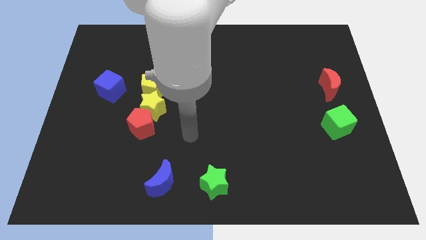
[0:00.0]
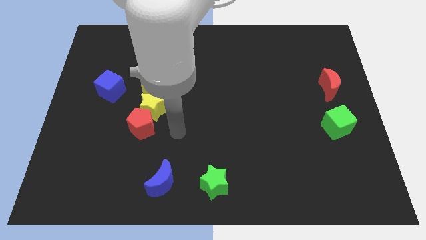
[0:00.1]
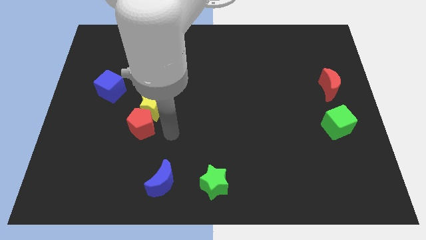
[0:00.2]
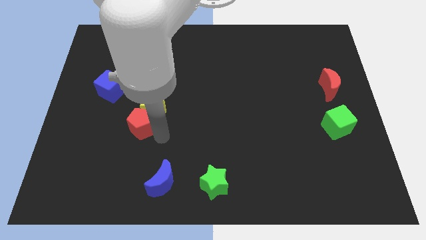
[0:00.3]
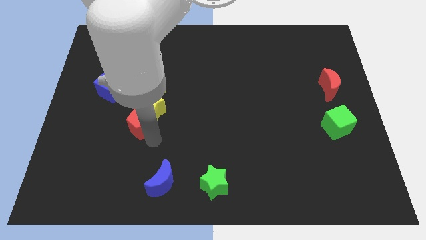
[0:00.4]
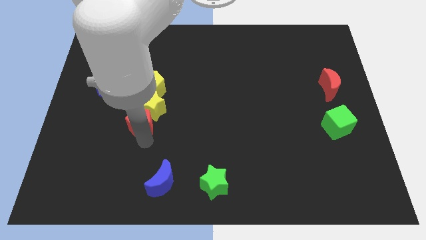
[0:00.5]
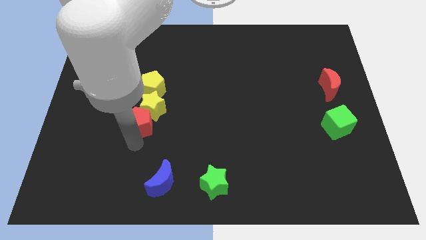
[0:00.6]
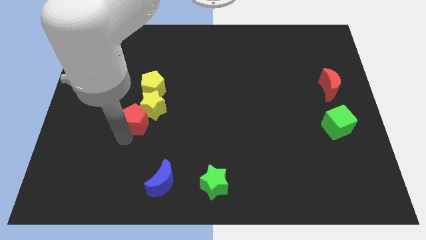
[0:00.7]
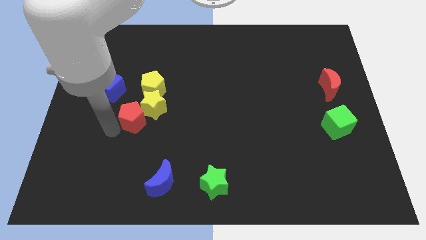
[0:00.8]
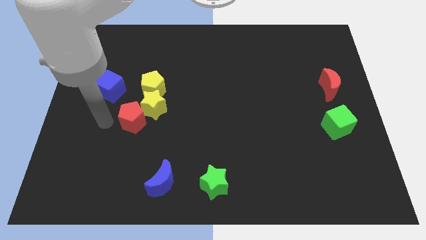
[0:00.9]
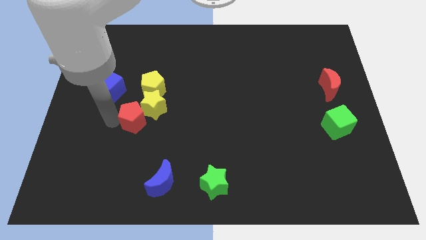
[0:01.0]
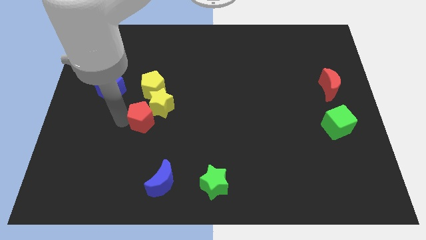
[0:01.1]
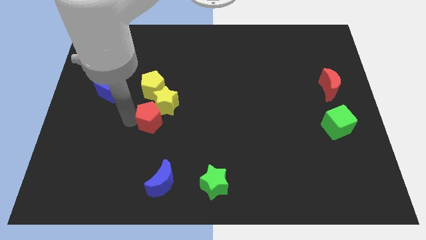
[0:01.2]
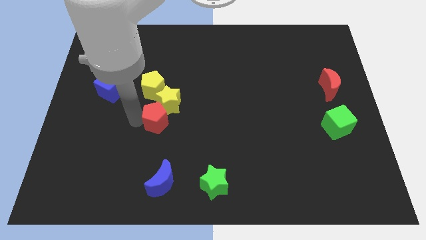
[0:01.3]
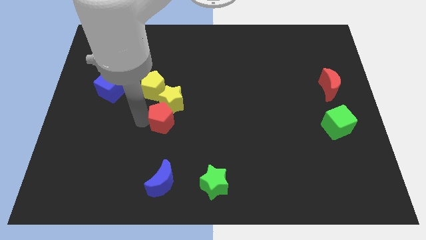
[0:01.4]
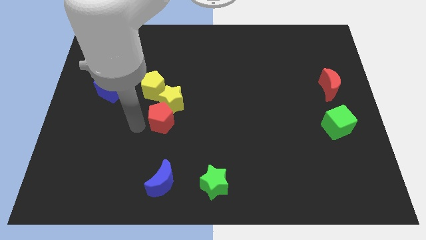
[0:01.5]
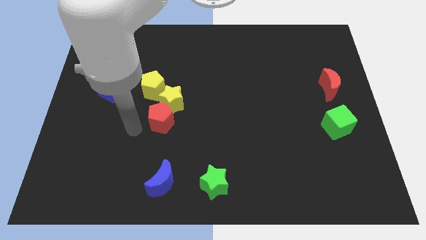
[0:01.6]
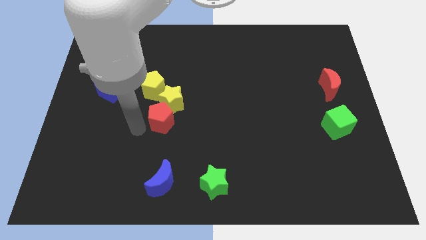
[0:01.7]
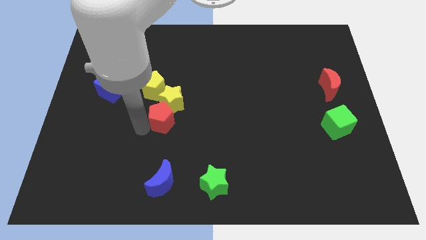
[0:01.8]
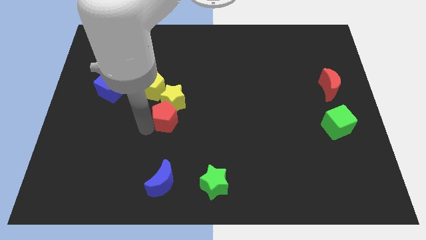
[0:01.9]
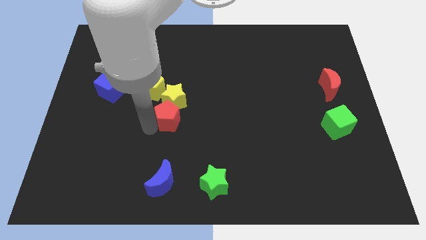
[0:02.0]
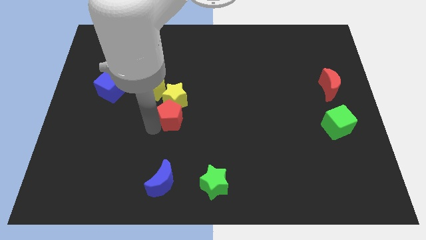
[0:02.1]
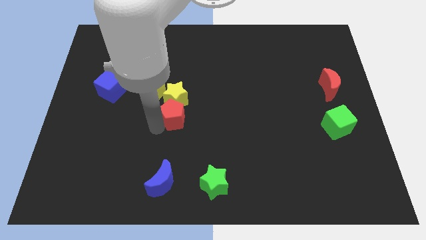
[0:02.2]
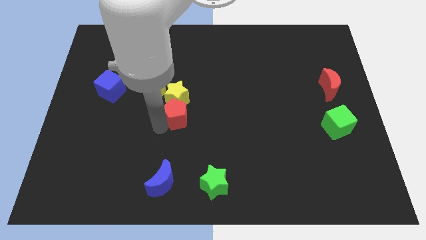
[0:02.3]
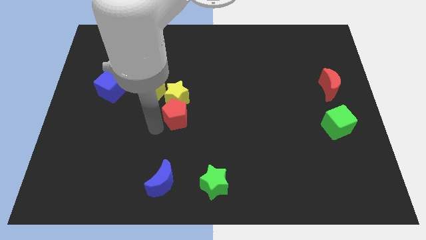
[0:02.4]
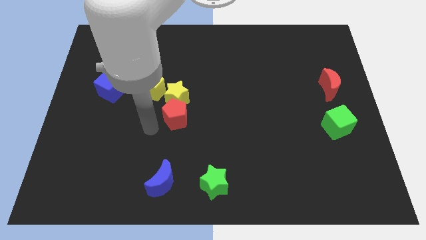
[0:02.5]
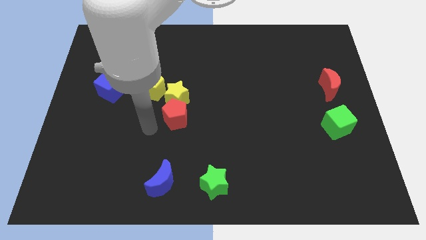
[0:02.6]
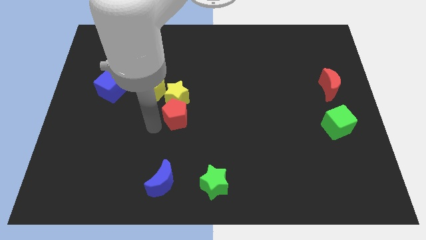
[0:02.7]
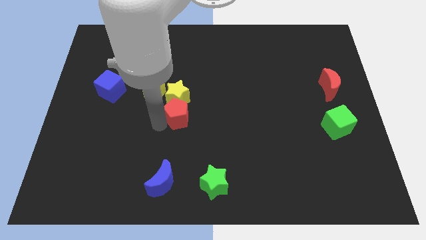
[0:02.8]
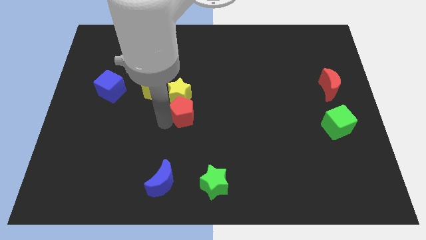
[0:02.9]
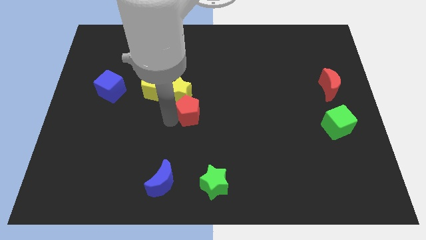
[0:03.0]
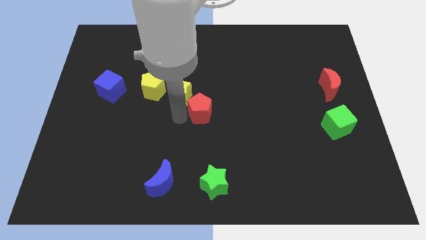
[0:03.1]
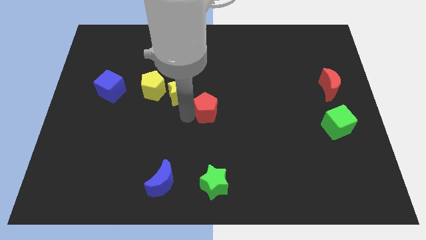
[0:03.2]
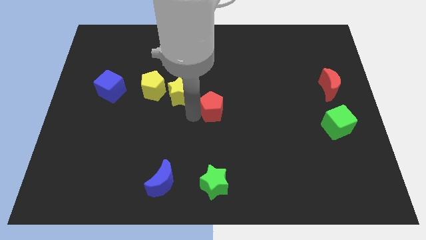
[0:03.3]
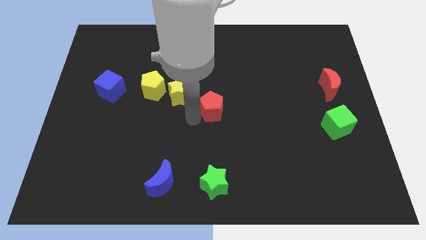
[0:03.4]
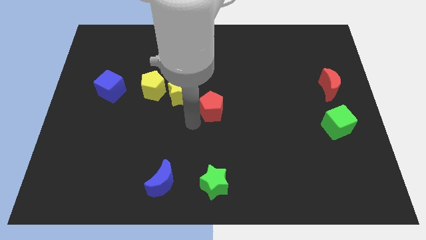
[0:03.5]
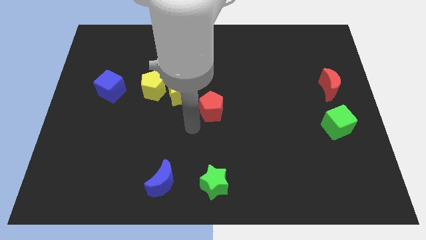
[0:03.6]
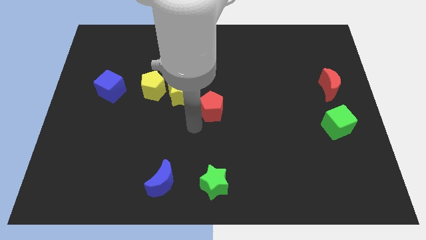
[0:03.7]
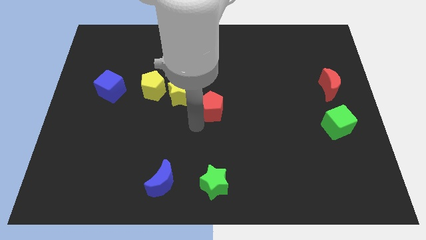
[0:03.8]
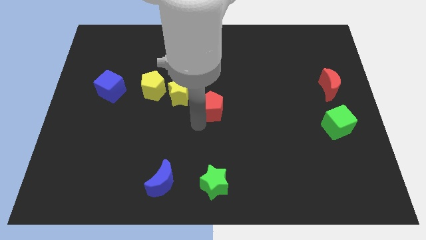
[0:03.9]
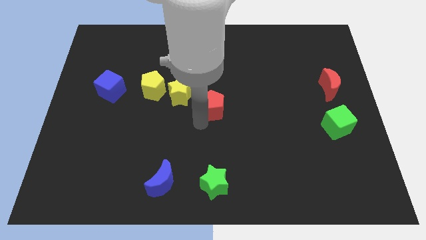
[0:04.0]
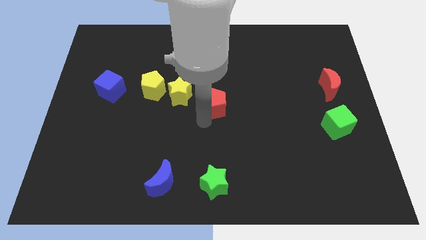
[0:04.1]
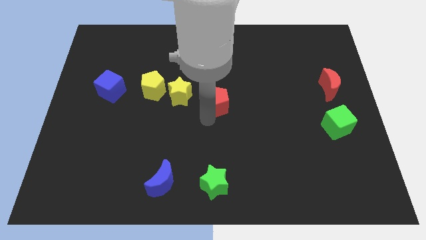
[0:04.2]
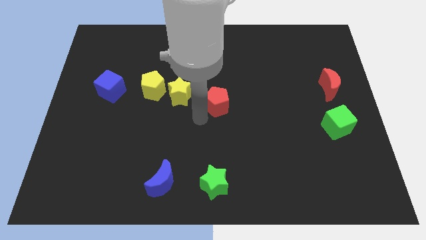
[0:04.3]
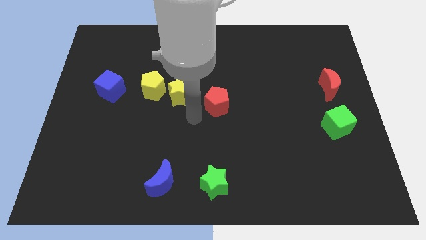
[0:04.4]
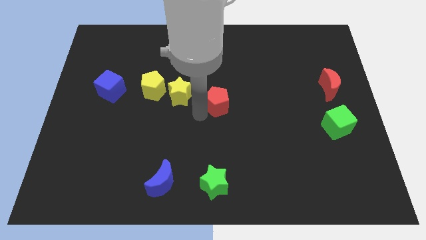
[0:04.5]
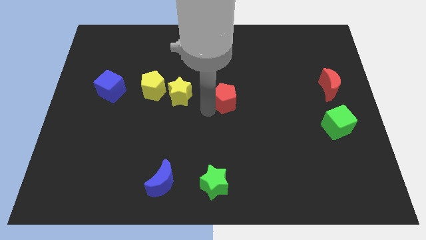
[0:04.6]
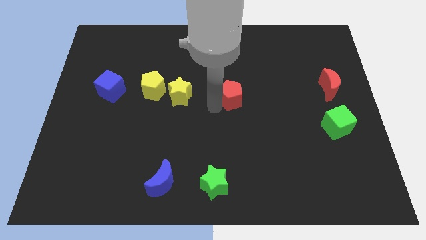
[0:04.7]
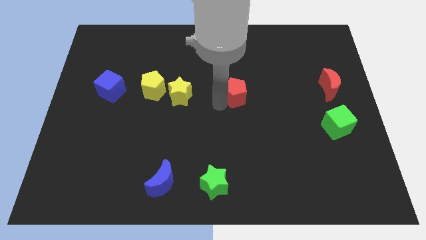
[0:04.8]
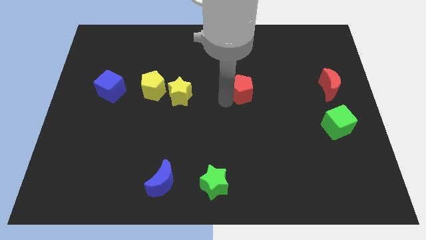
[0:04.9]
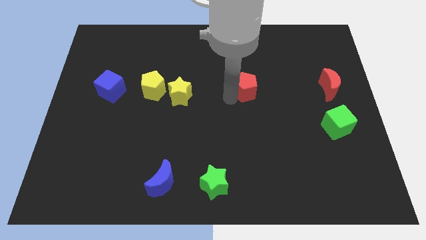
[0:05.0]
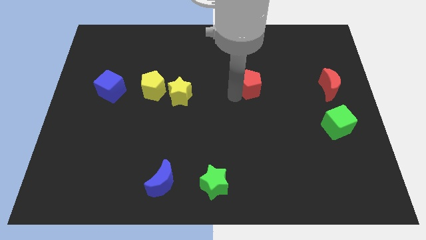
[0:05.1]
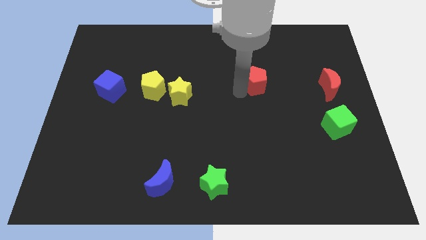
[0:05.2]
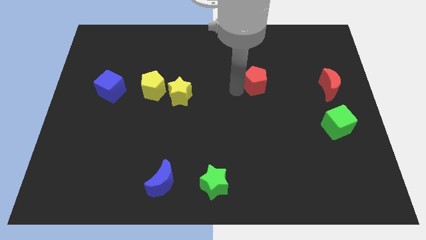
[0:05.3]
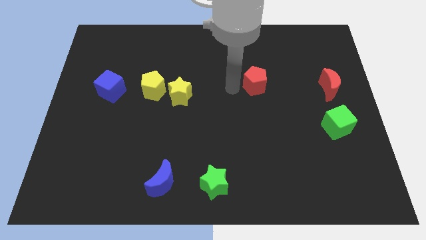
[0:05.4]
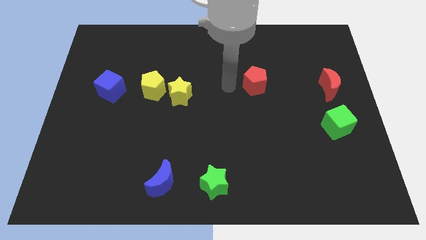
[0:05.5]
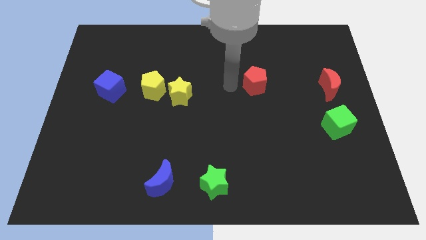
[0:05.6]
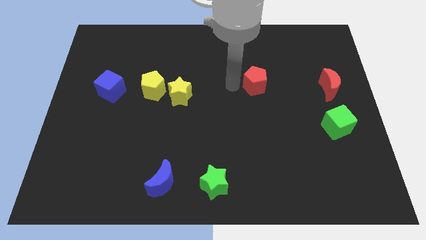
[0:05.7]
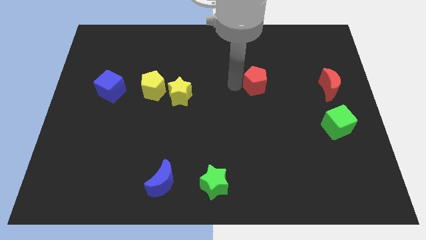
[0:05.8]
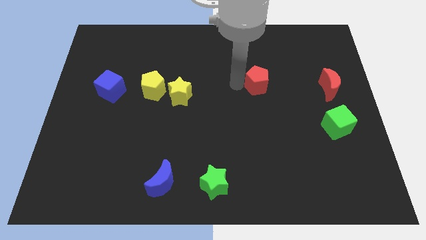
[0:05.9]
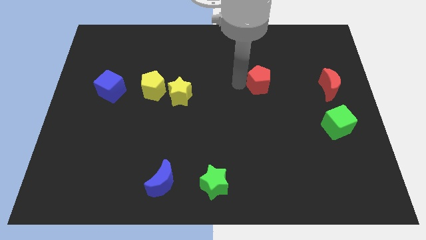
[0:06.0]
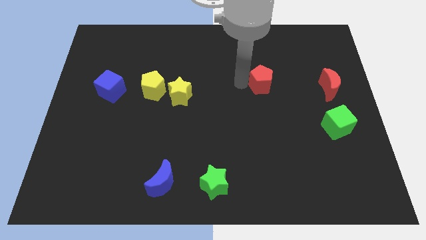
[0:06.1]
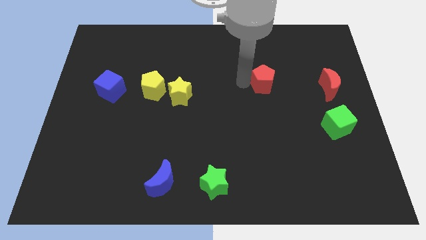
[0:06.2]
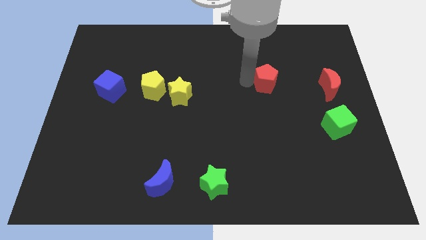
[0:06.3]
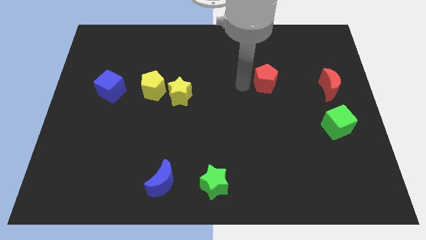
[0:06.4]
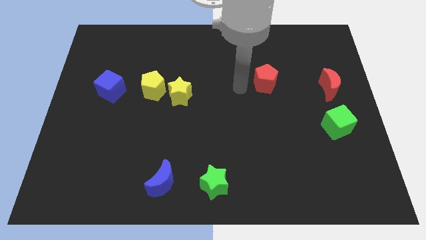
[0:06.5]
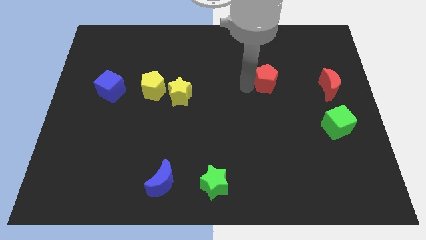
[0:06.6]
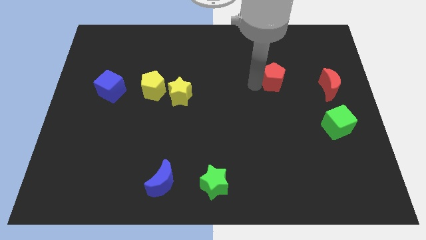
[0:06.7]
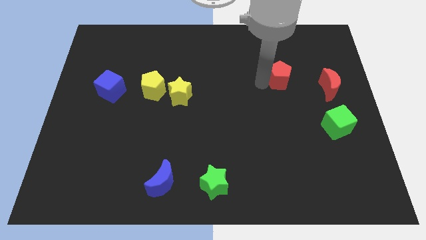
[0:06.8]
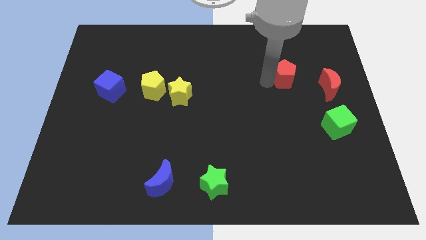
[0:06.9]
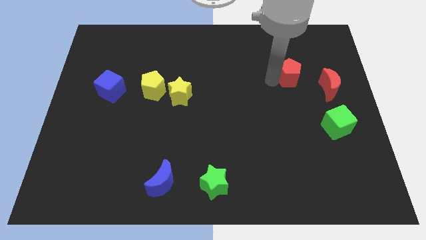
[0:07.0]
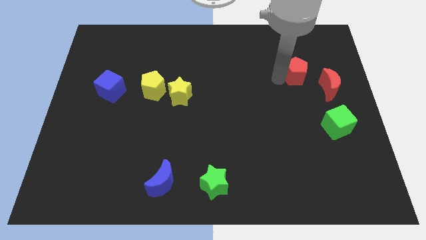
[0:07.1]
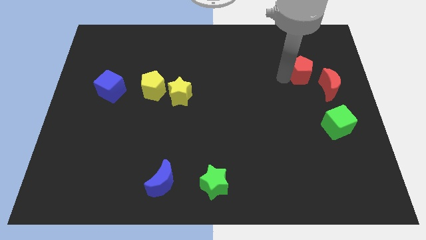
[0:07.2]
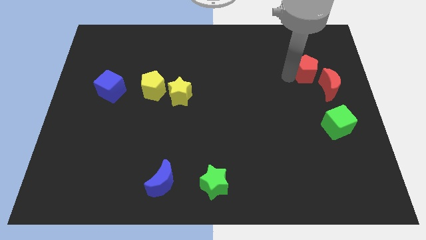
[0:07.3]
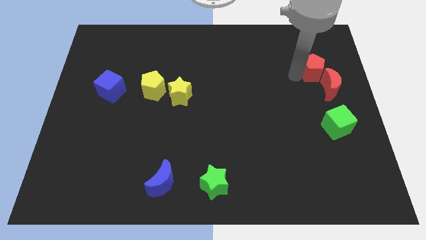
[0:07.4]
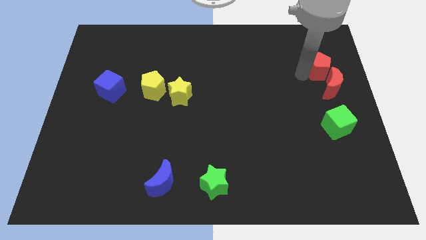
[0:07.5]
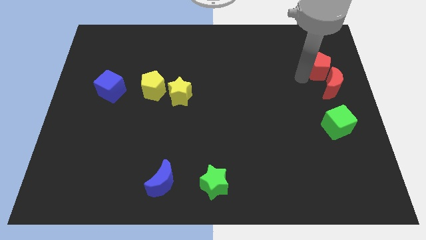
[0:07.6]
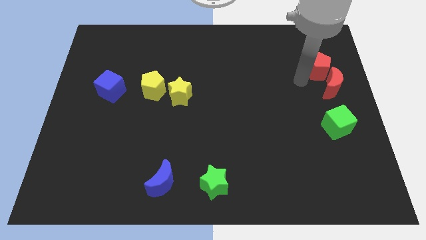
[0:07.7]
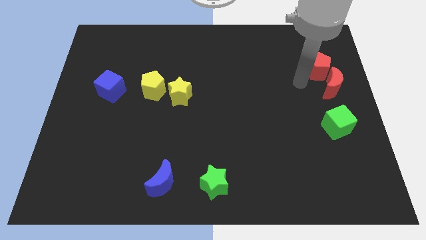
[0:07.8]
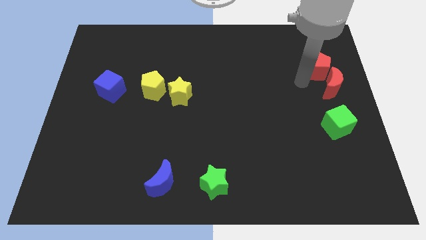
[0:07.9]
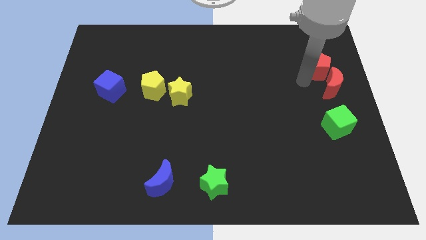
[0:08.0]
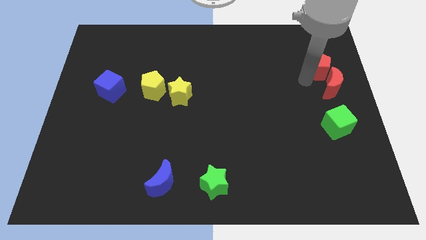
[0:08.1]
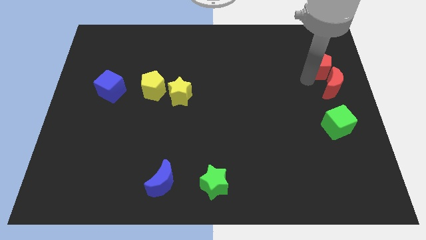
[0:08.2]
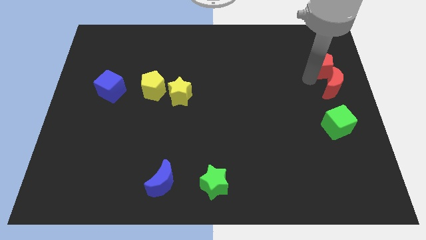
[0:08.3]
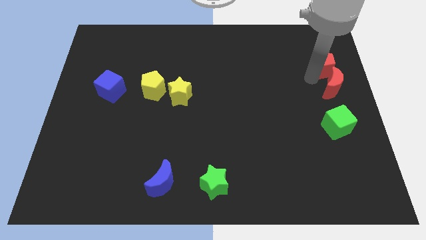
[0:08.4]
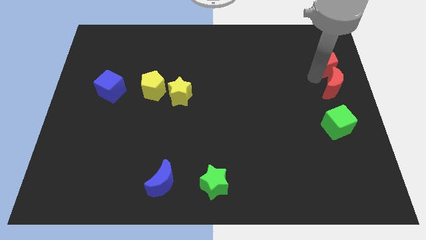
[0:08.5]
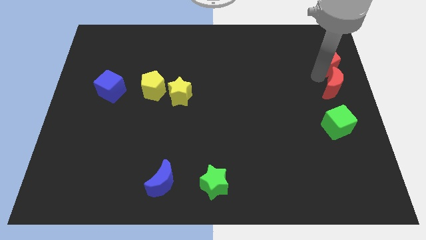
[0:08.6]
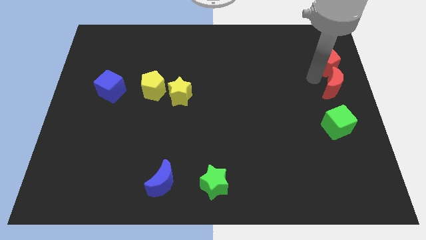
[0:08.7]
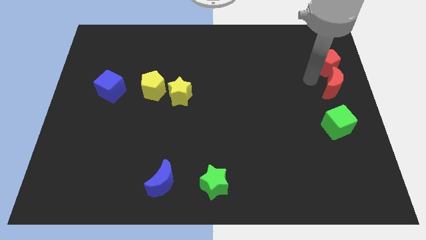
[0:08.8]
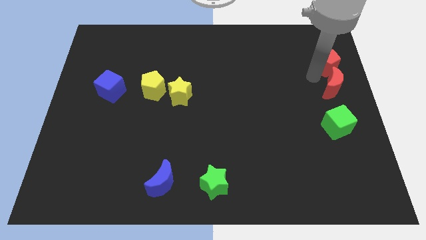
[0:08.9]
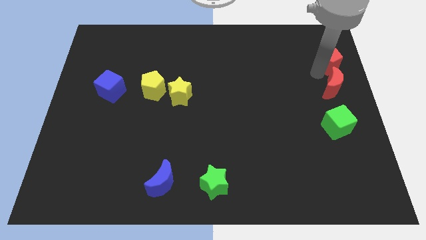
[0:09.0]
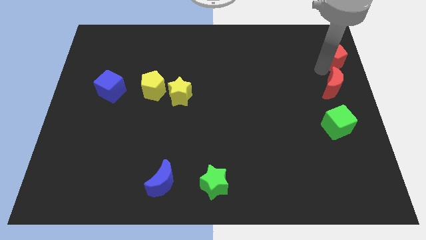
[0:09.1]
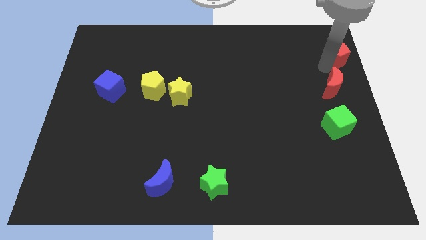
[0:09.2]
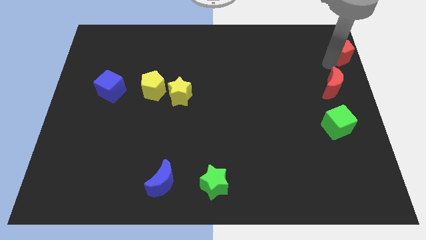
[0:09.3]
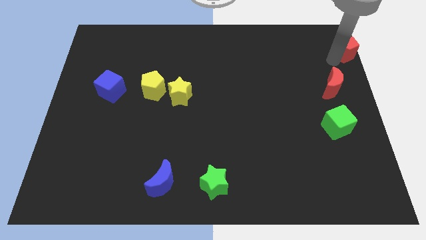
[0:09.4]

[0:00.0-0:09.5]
slide the red pentagon to the top right
